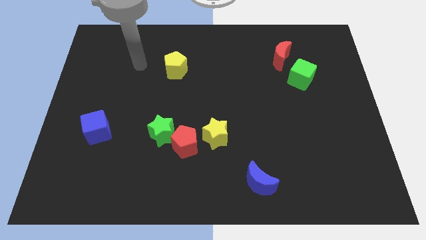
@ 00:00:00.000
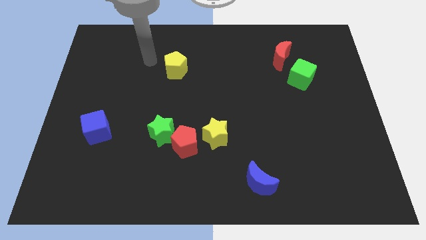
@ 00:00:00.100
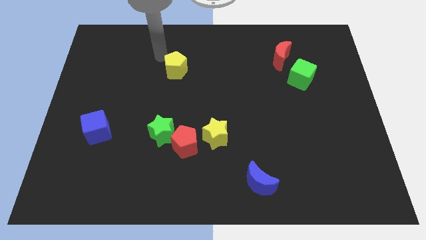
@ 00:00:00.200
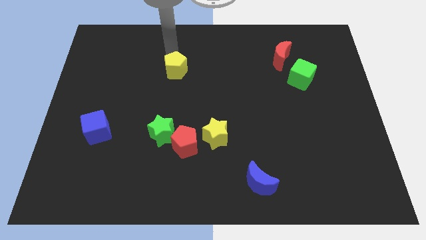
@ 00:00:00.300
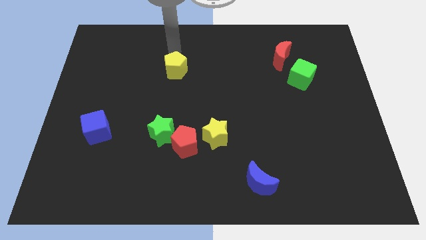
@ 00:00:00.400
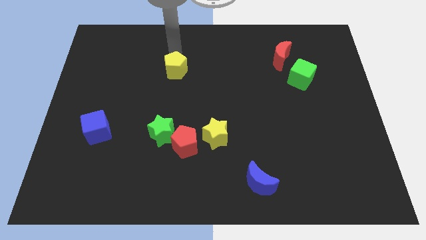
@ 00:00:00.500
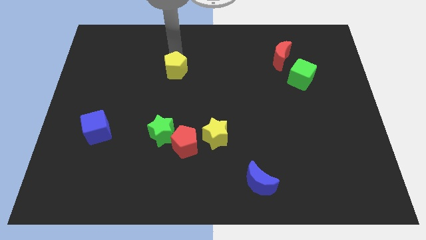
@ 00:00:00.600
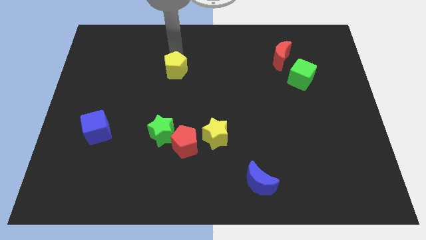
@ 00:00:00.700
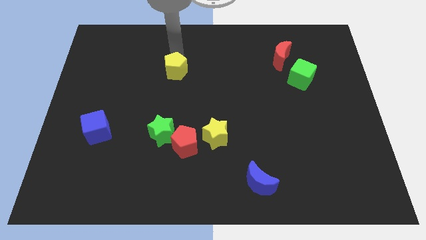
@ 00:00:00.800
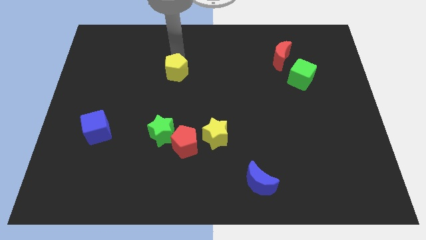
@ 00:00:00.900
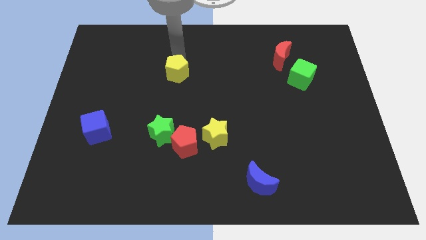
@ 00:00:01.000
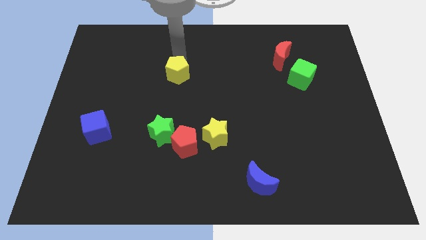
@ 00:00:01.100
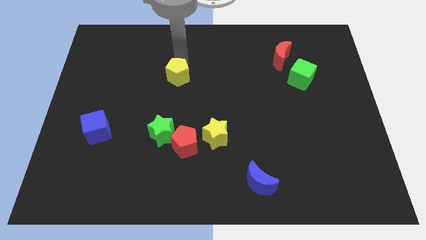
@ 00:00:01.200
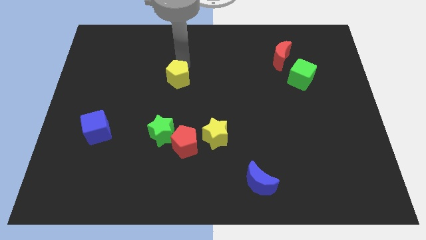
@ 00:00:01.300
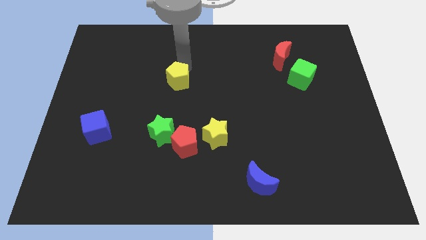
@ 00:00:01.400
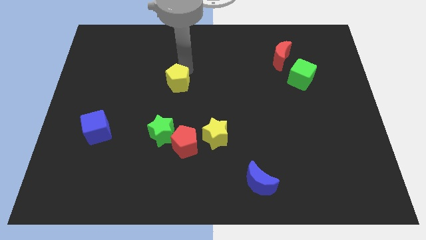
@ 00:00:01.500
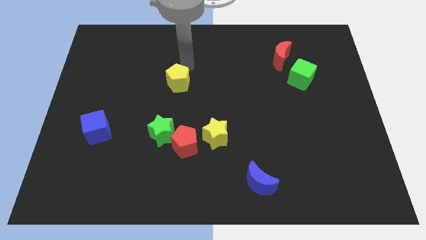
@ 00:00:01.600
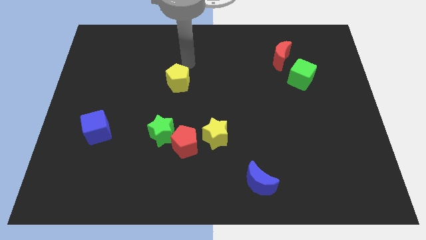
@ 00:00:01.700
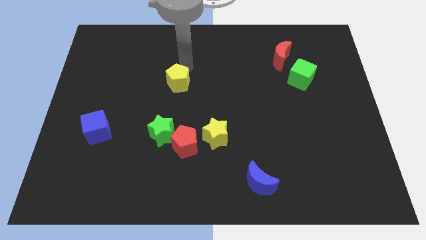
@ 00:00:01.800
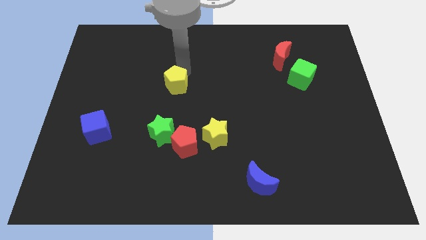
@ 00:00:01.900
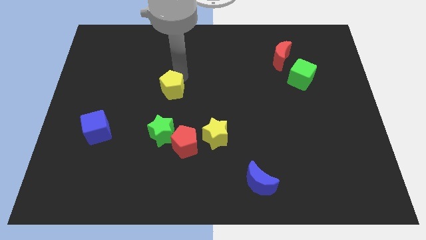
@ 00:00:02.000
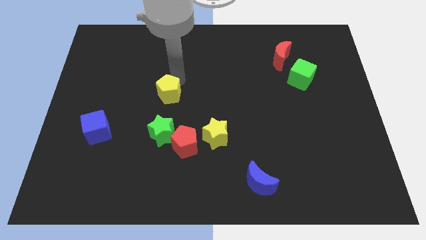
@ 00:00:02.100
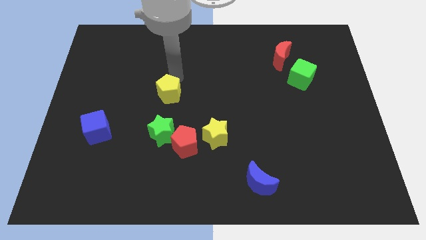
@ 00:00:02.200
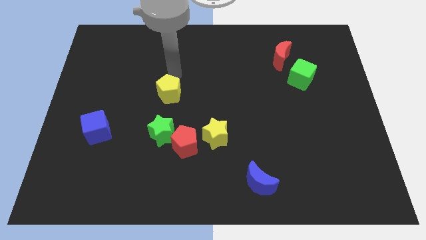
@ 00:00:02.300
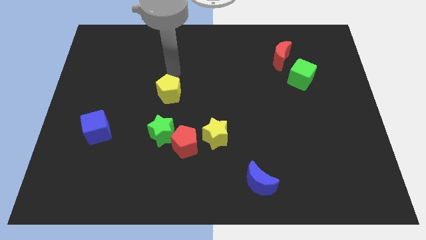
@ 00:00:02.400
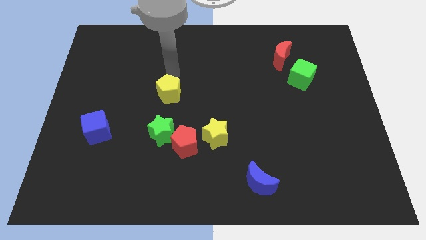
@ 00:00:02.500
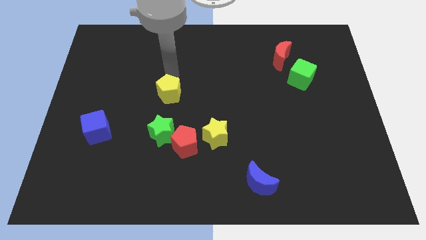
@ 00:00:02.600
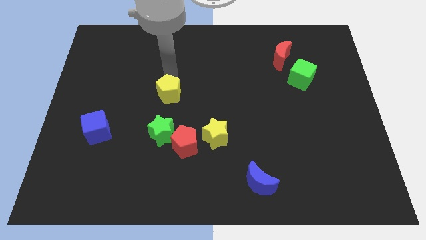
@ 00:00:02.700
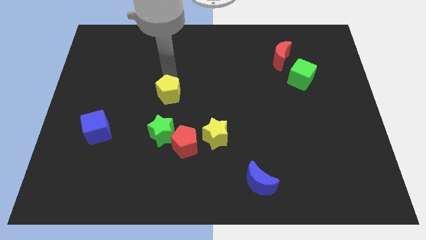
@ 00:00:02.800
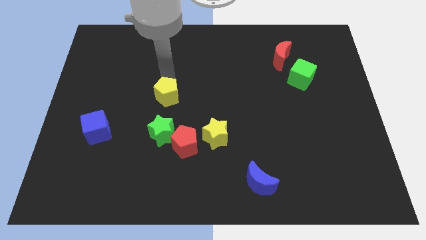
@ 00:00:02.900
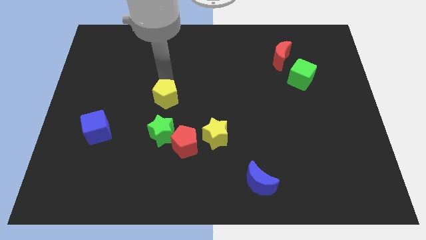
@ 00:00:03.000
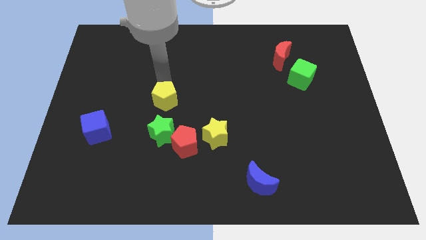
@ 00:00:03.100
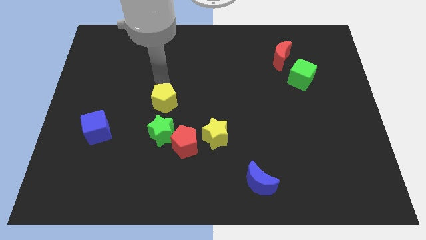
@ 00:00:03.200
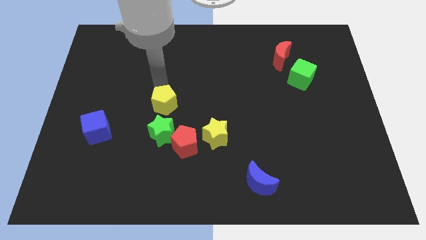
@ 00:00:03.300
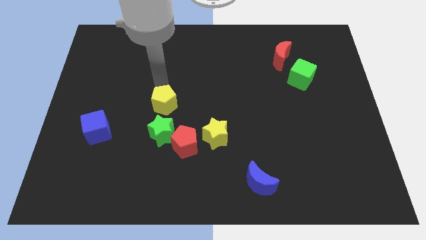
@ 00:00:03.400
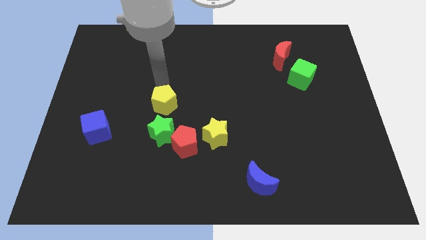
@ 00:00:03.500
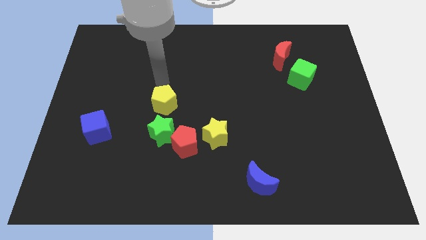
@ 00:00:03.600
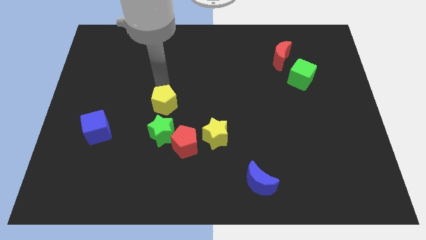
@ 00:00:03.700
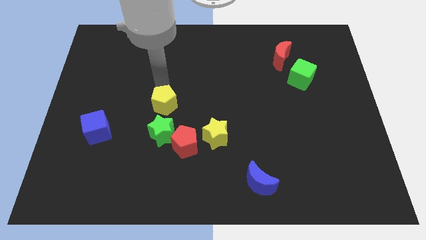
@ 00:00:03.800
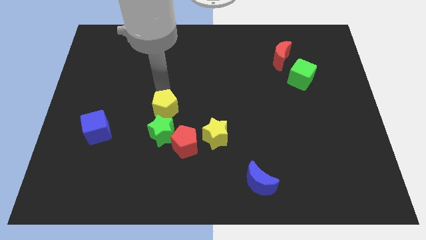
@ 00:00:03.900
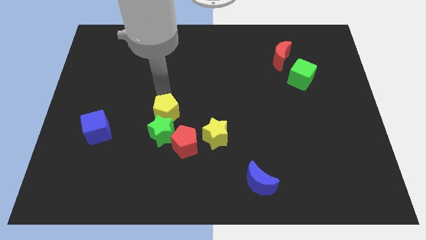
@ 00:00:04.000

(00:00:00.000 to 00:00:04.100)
slide the yellow pentagon towards the green star

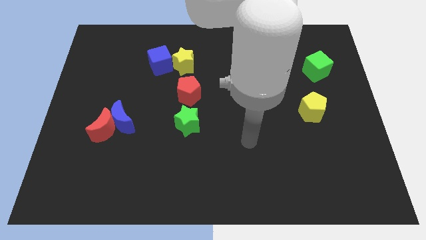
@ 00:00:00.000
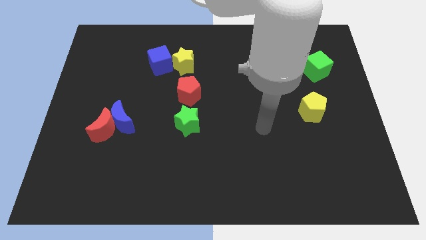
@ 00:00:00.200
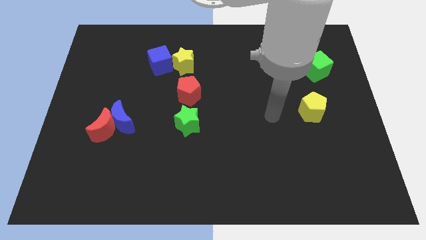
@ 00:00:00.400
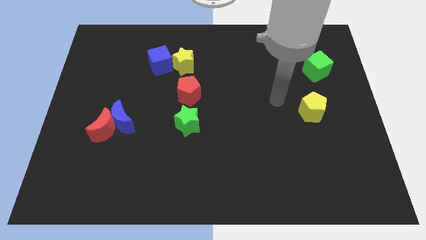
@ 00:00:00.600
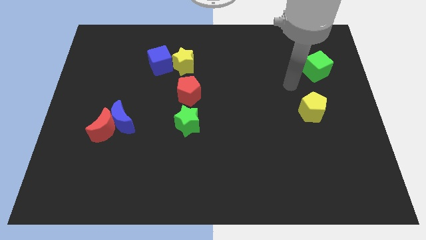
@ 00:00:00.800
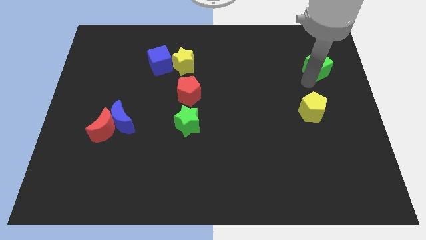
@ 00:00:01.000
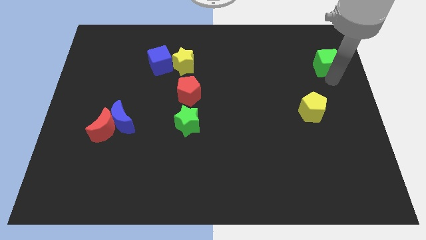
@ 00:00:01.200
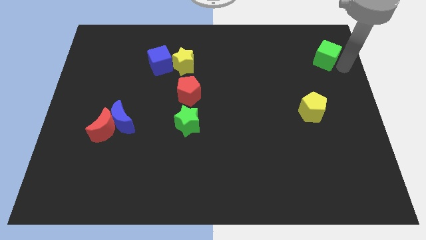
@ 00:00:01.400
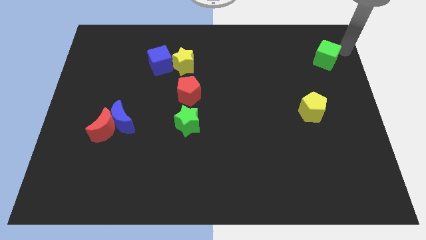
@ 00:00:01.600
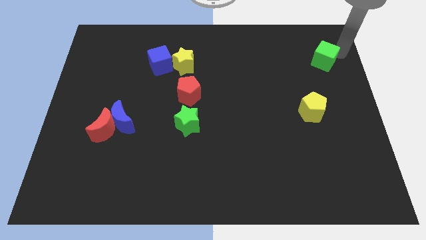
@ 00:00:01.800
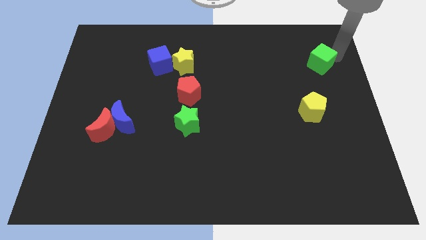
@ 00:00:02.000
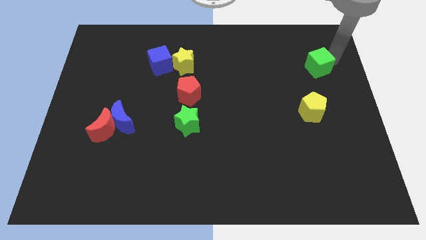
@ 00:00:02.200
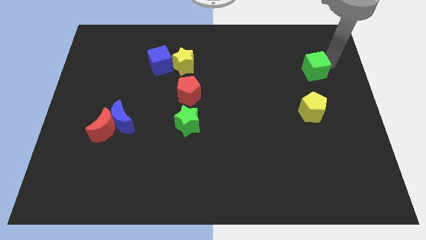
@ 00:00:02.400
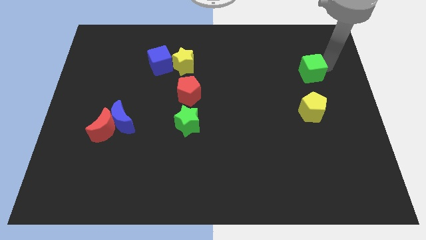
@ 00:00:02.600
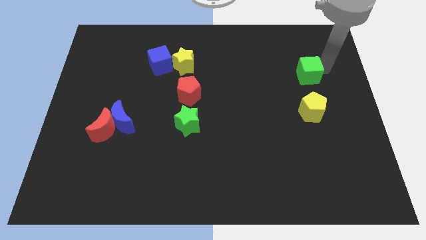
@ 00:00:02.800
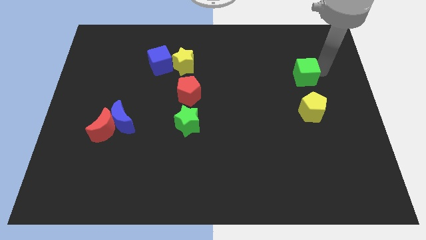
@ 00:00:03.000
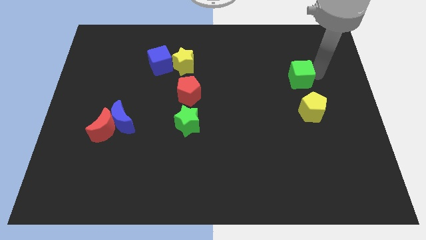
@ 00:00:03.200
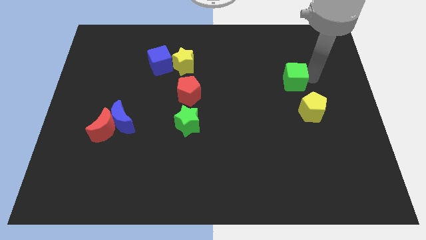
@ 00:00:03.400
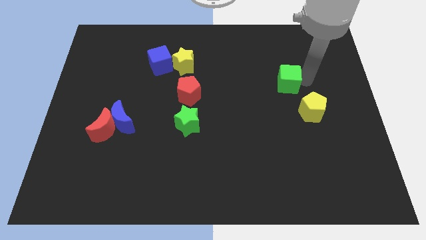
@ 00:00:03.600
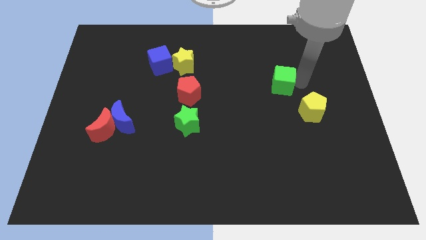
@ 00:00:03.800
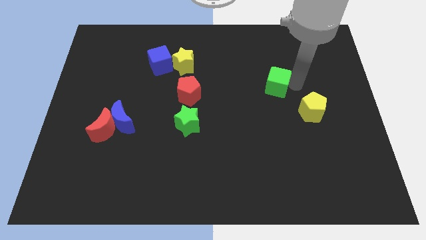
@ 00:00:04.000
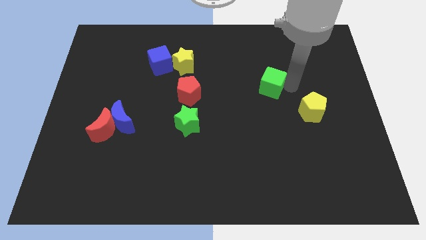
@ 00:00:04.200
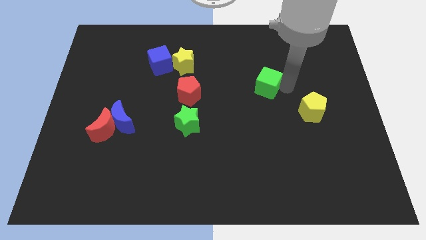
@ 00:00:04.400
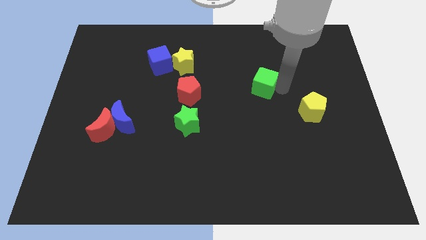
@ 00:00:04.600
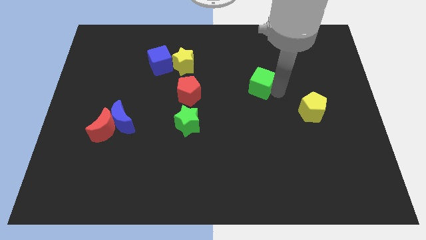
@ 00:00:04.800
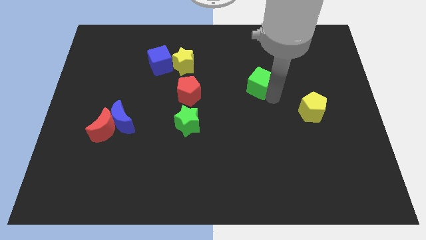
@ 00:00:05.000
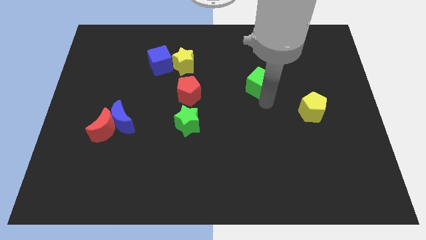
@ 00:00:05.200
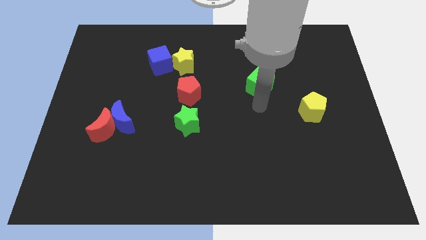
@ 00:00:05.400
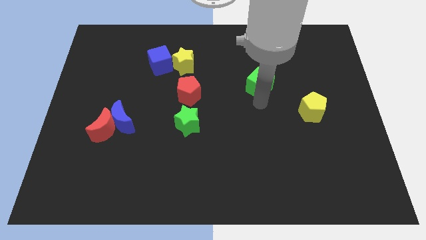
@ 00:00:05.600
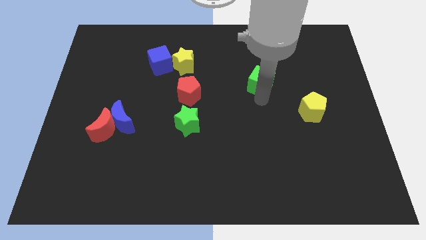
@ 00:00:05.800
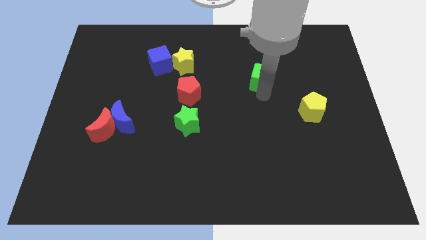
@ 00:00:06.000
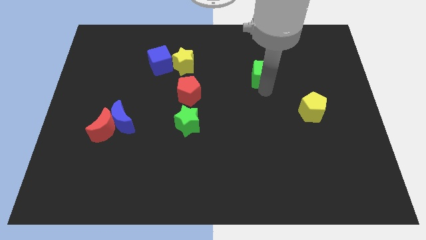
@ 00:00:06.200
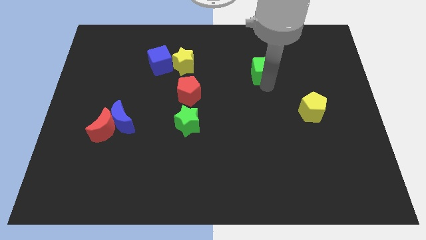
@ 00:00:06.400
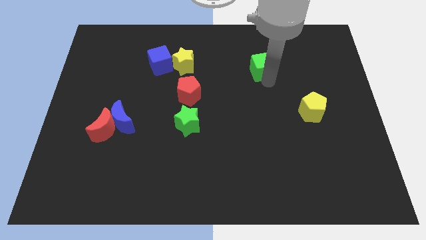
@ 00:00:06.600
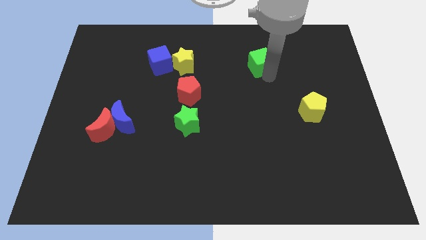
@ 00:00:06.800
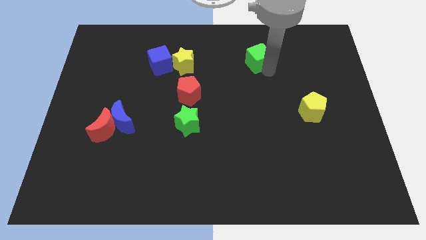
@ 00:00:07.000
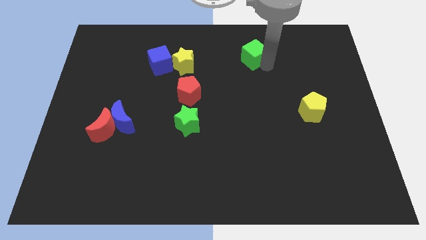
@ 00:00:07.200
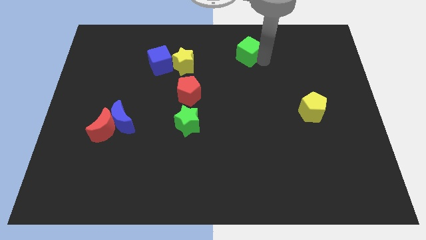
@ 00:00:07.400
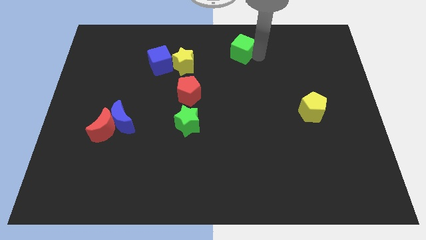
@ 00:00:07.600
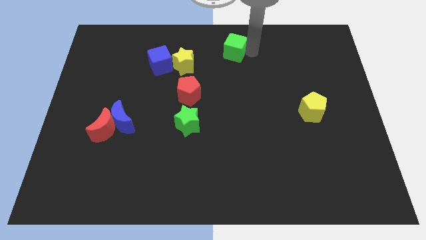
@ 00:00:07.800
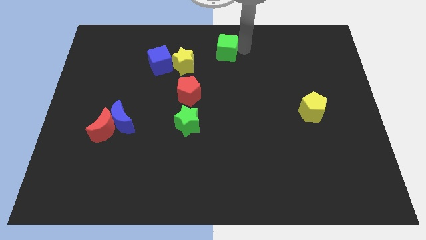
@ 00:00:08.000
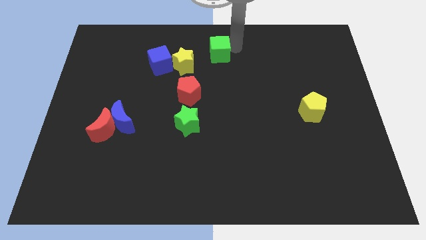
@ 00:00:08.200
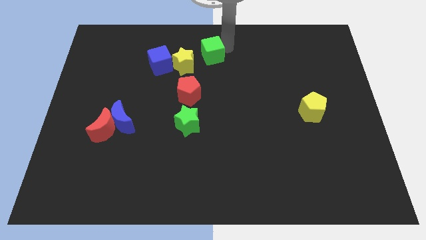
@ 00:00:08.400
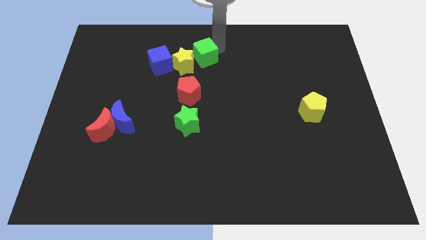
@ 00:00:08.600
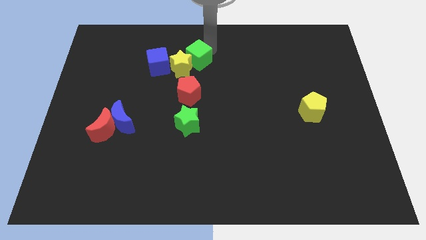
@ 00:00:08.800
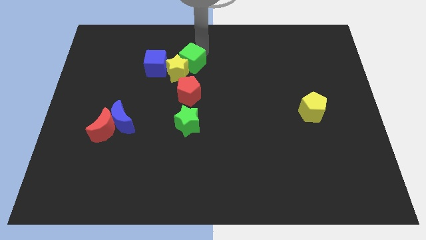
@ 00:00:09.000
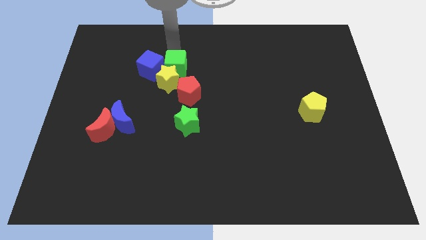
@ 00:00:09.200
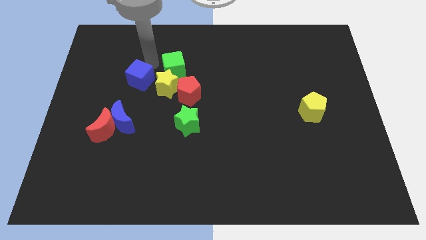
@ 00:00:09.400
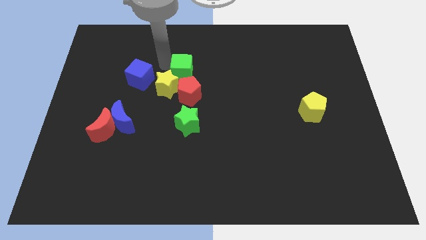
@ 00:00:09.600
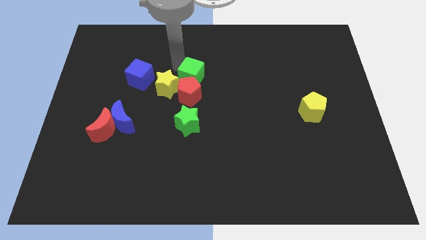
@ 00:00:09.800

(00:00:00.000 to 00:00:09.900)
slide the green cube to the red pentagon
